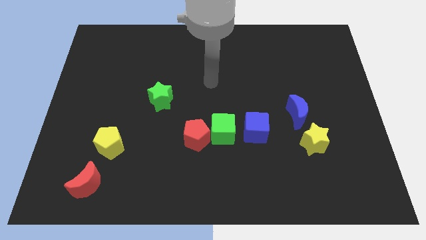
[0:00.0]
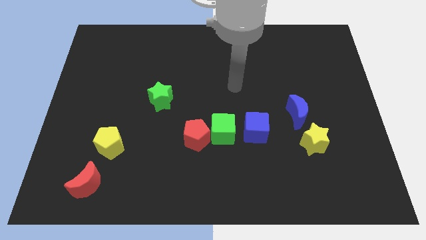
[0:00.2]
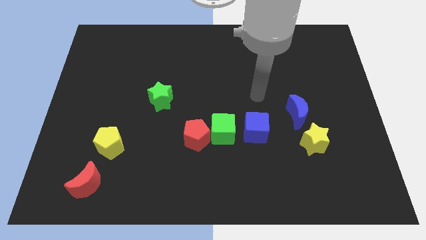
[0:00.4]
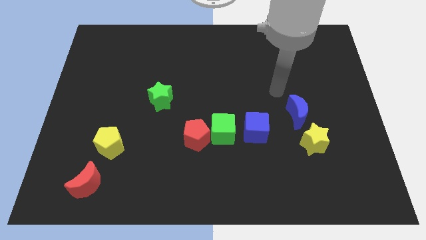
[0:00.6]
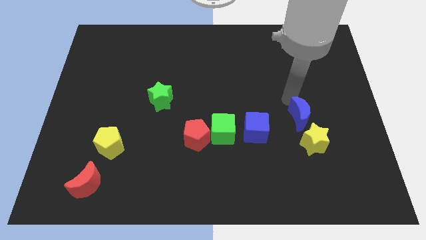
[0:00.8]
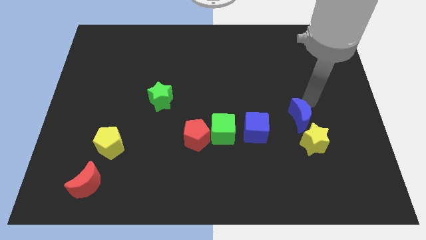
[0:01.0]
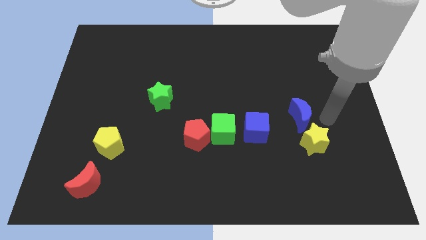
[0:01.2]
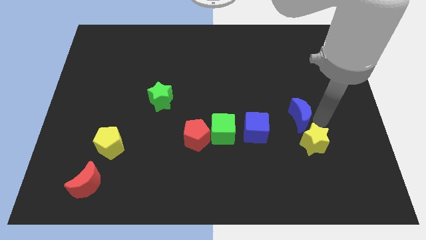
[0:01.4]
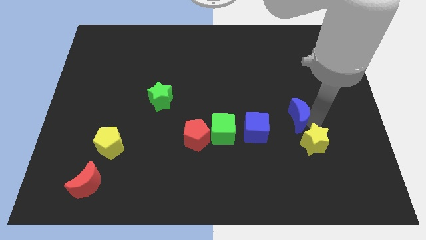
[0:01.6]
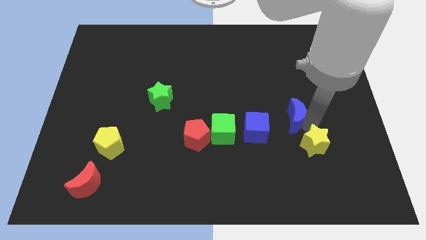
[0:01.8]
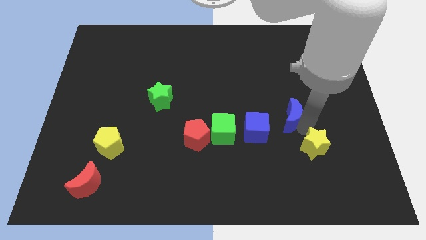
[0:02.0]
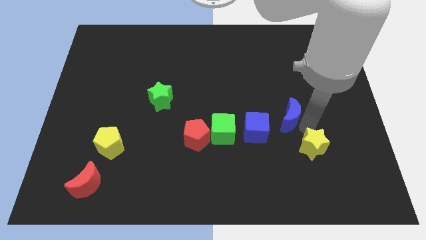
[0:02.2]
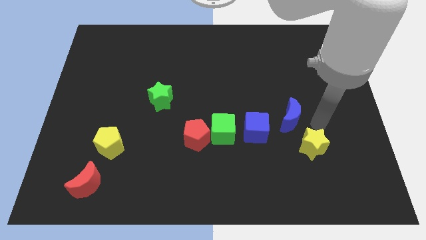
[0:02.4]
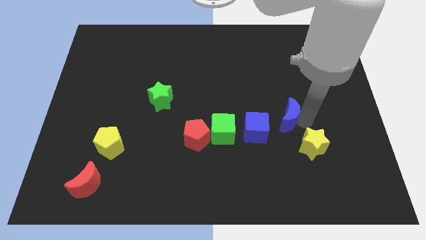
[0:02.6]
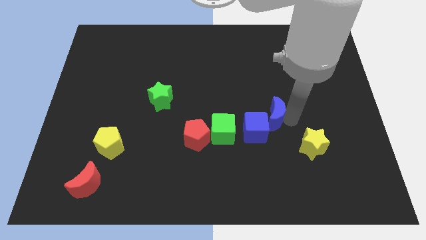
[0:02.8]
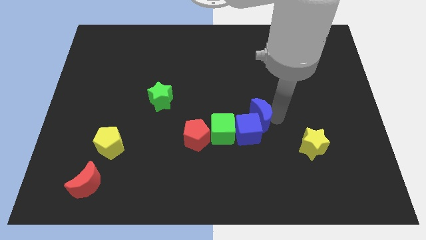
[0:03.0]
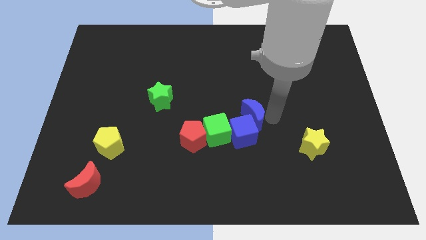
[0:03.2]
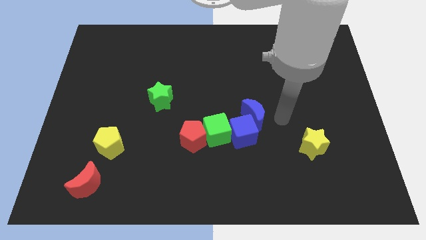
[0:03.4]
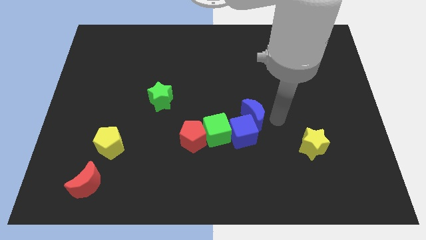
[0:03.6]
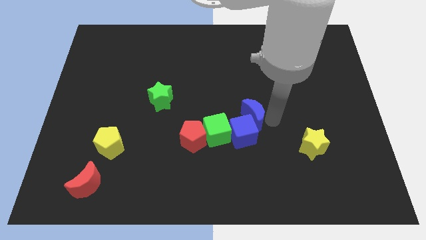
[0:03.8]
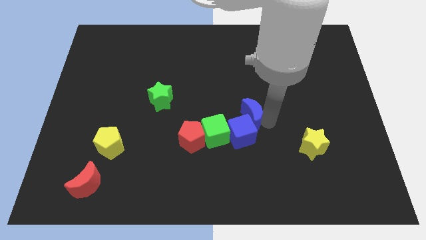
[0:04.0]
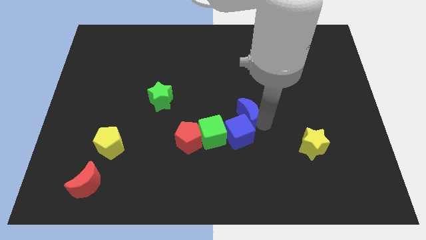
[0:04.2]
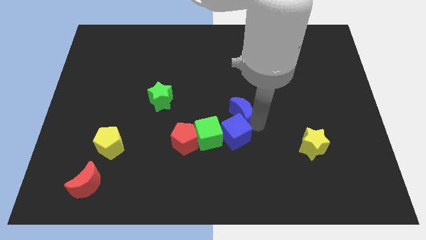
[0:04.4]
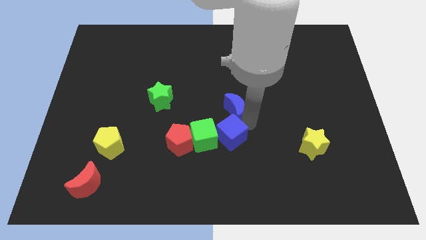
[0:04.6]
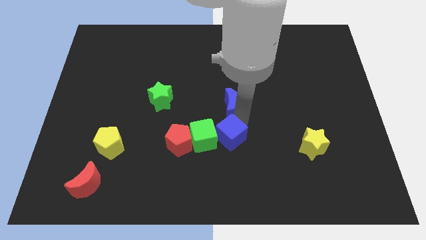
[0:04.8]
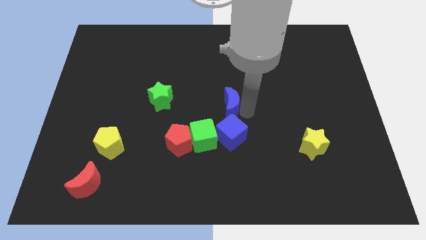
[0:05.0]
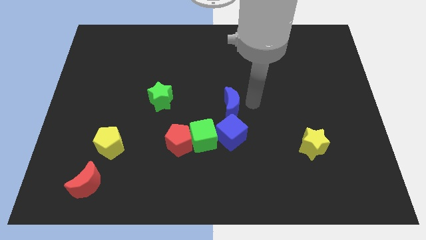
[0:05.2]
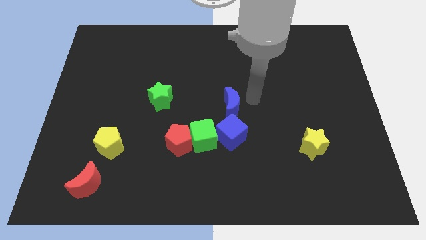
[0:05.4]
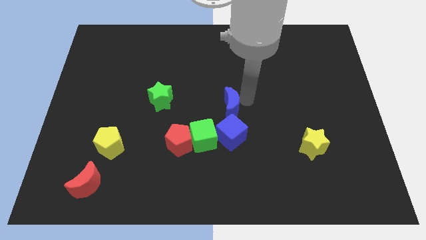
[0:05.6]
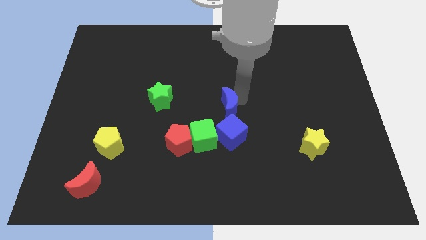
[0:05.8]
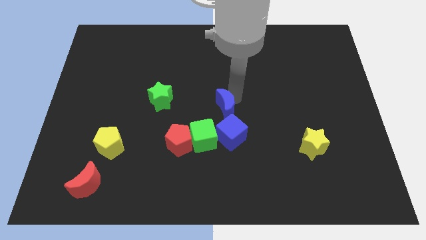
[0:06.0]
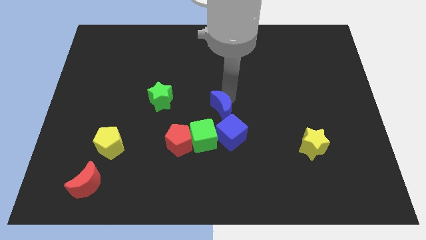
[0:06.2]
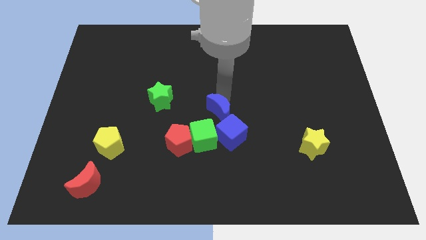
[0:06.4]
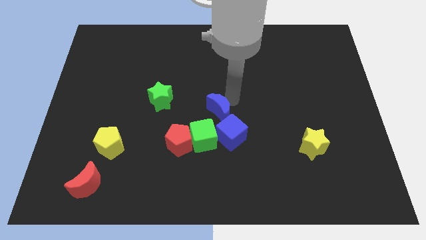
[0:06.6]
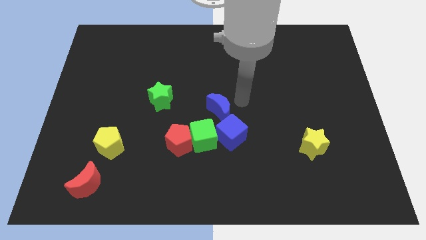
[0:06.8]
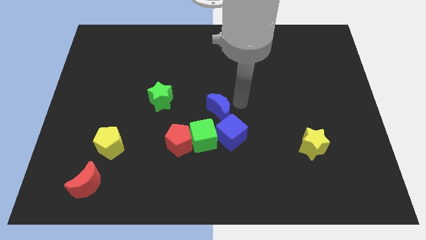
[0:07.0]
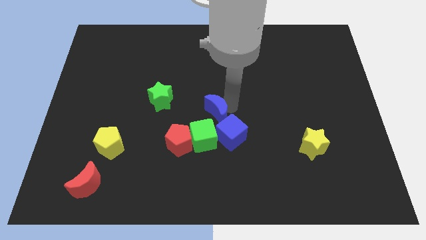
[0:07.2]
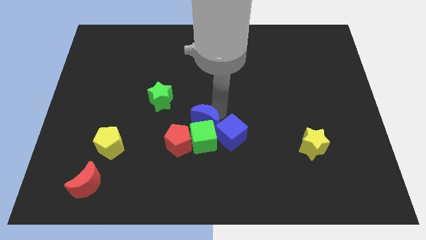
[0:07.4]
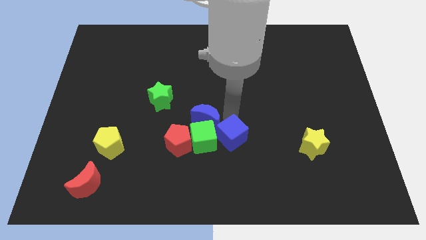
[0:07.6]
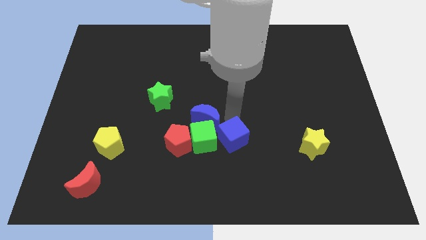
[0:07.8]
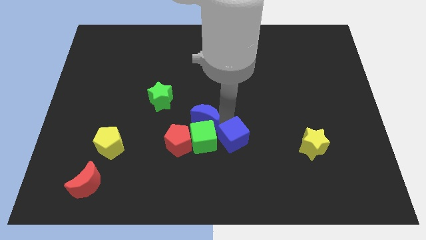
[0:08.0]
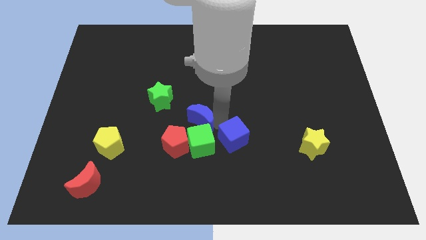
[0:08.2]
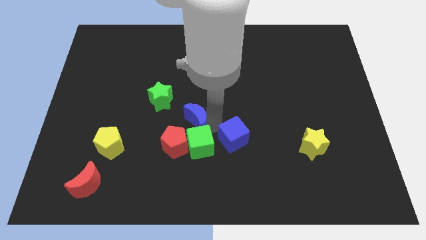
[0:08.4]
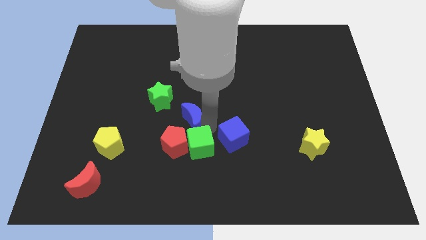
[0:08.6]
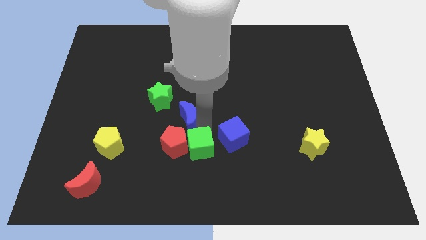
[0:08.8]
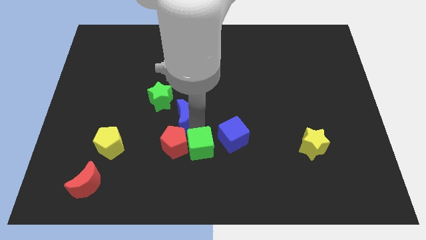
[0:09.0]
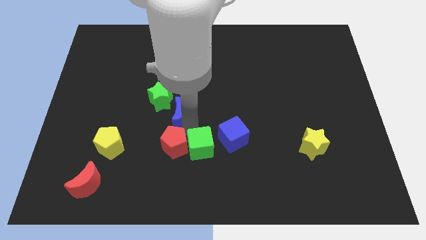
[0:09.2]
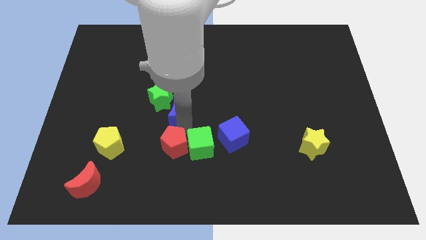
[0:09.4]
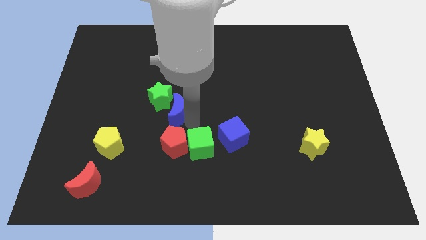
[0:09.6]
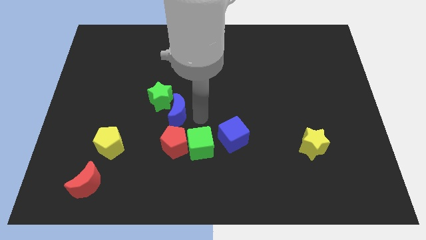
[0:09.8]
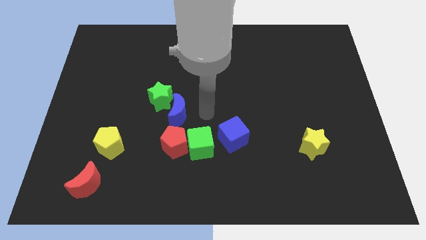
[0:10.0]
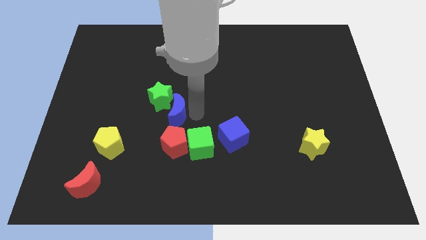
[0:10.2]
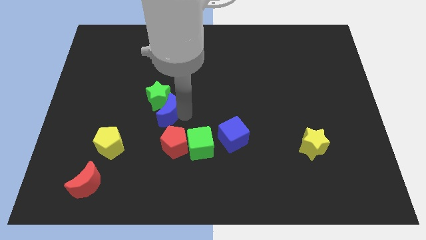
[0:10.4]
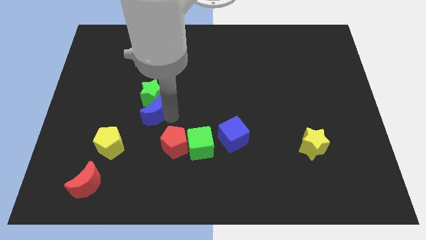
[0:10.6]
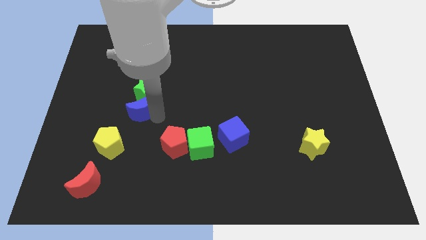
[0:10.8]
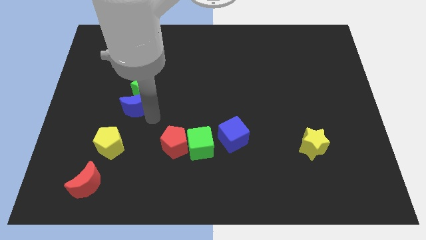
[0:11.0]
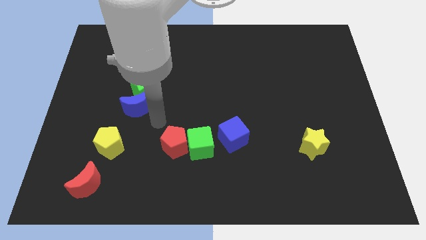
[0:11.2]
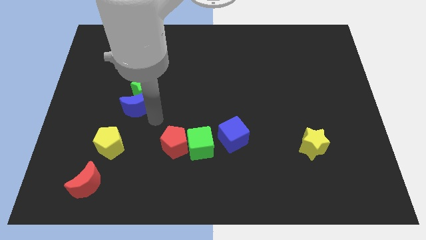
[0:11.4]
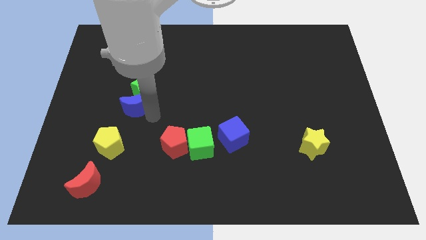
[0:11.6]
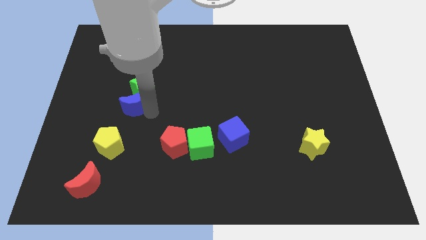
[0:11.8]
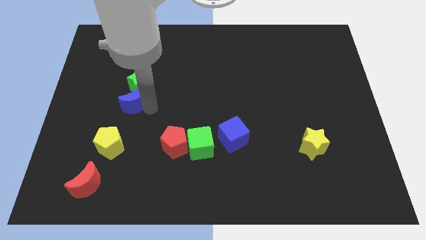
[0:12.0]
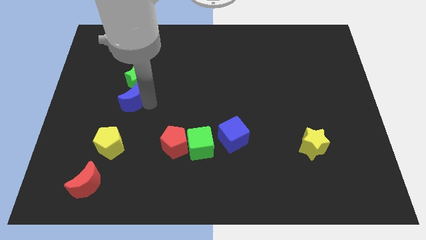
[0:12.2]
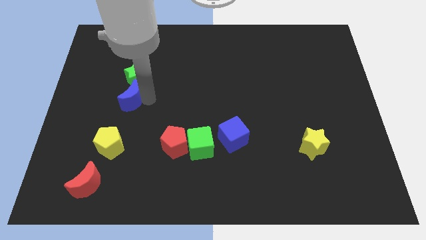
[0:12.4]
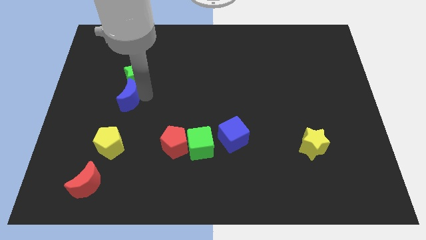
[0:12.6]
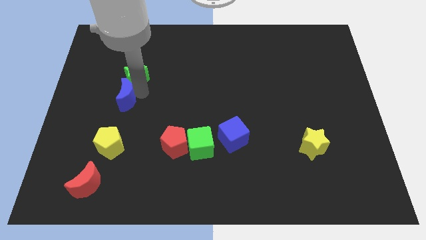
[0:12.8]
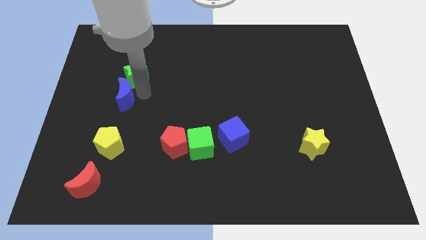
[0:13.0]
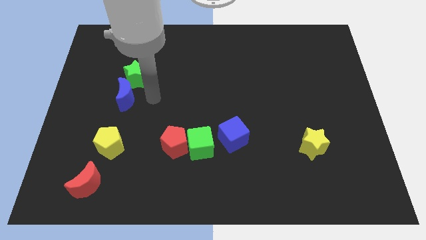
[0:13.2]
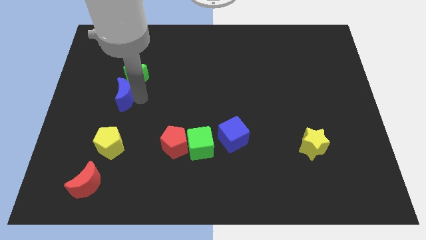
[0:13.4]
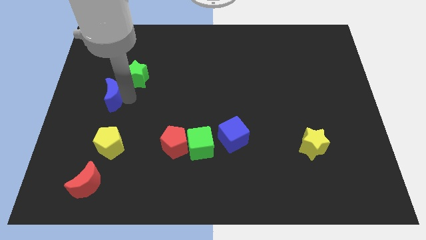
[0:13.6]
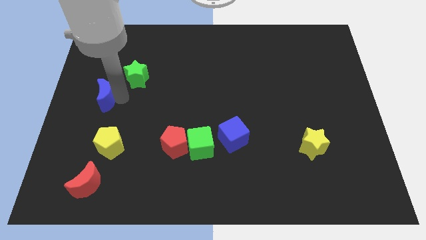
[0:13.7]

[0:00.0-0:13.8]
push the blue moon to the center left
